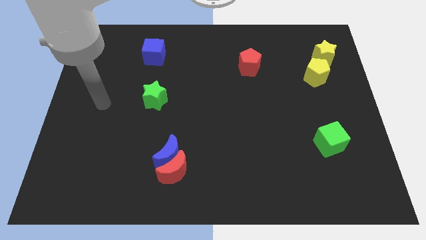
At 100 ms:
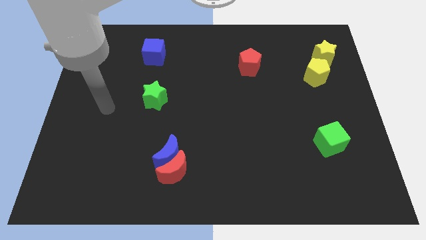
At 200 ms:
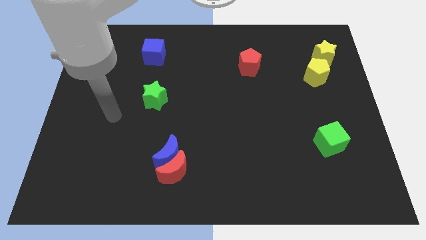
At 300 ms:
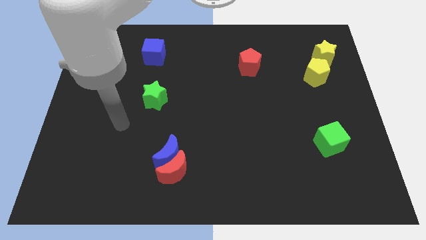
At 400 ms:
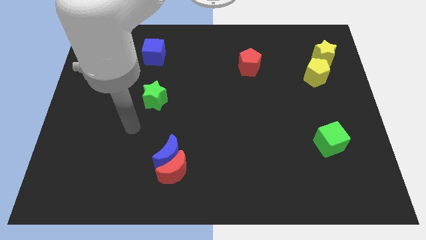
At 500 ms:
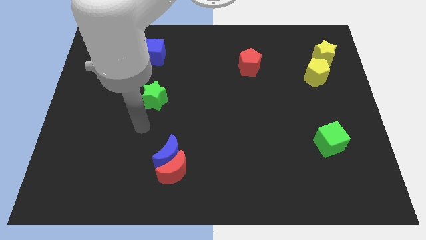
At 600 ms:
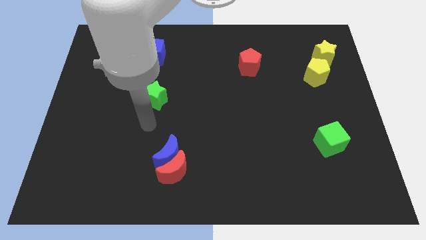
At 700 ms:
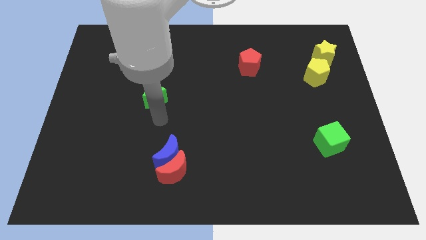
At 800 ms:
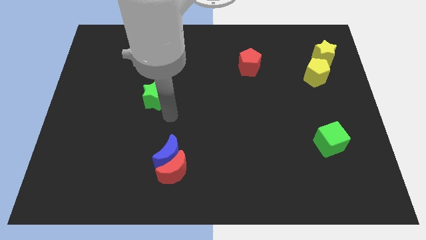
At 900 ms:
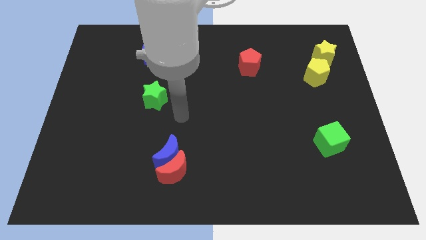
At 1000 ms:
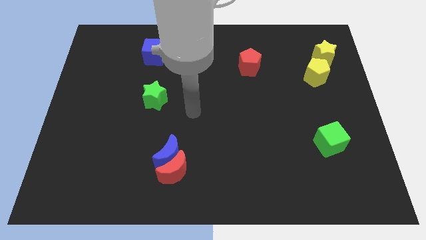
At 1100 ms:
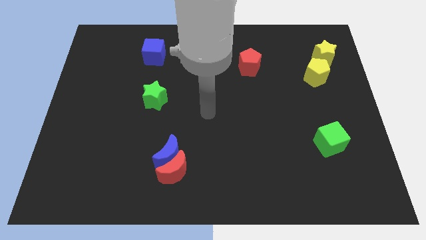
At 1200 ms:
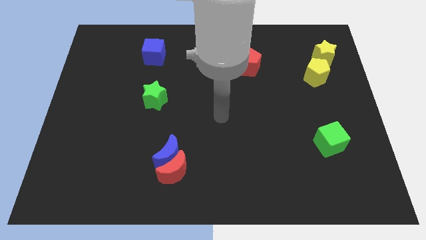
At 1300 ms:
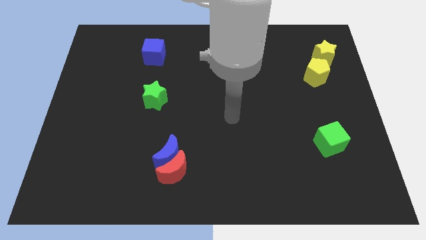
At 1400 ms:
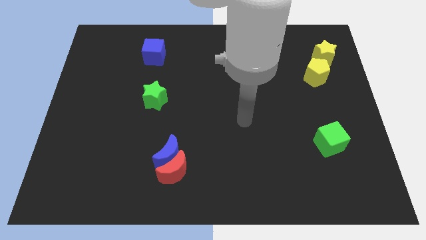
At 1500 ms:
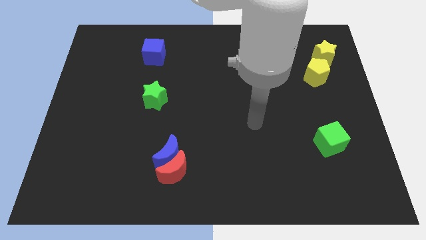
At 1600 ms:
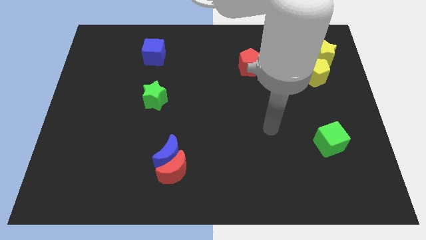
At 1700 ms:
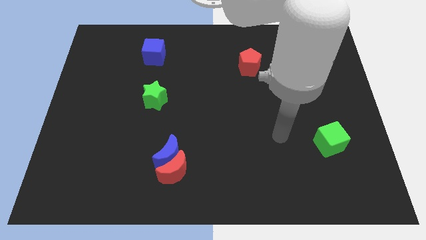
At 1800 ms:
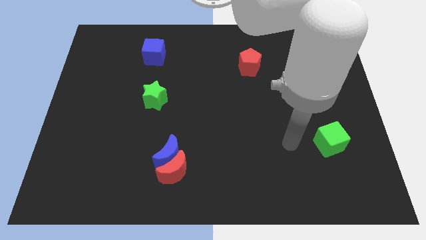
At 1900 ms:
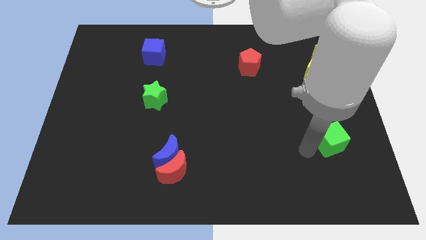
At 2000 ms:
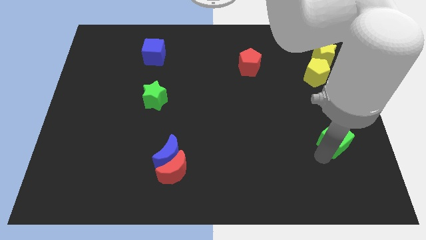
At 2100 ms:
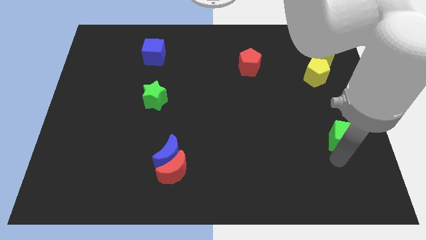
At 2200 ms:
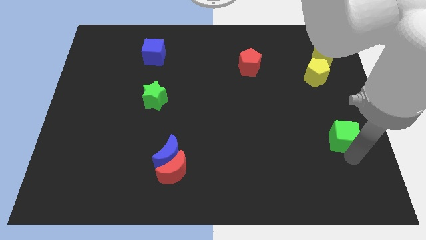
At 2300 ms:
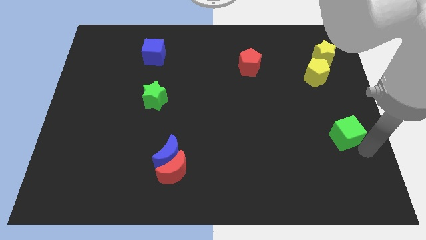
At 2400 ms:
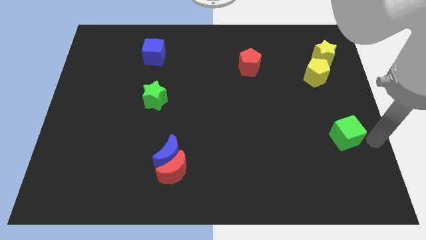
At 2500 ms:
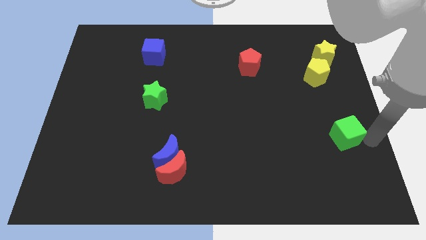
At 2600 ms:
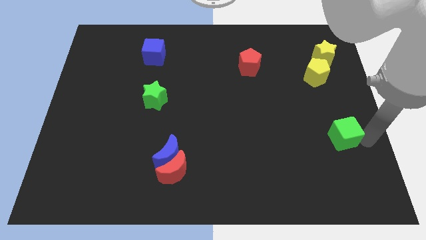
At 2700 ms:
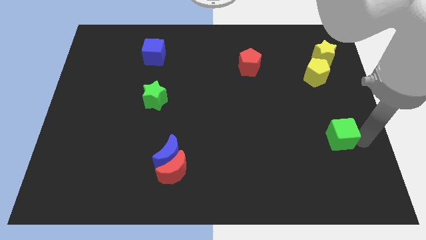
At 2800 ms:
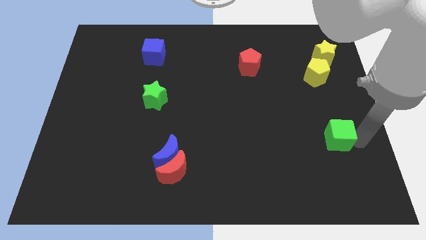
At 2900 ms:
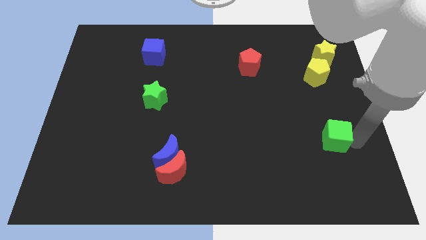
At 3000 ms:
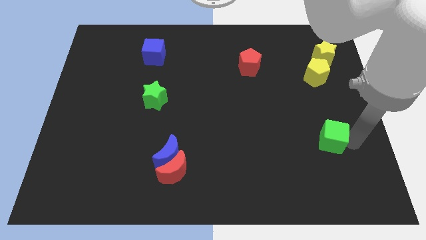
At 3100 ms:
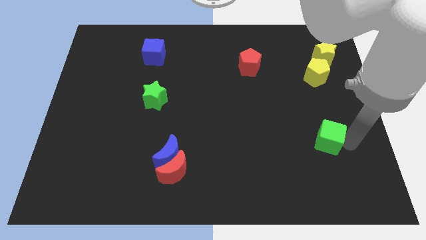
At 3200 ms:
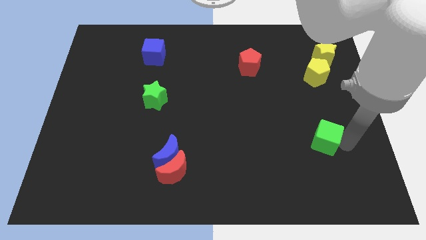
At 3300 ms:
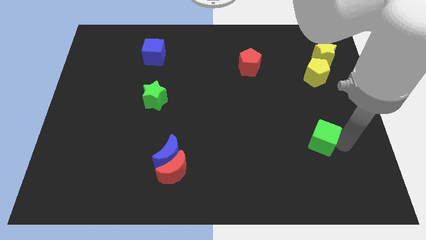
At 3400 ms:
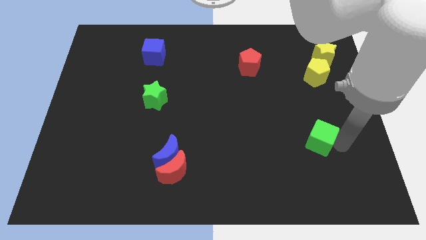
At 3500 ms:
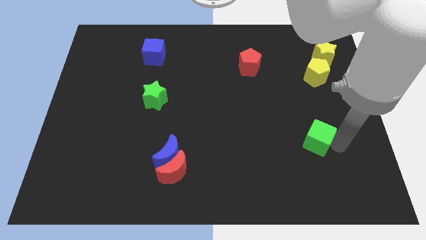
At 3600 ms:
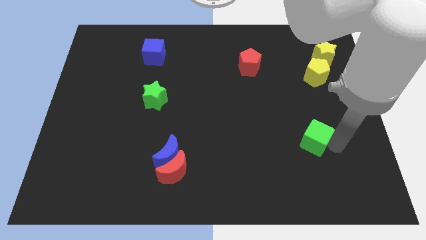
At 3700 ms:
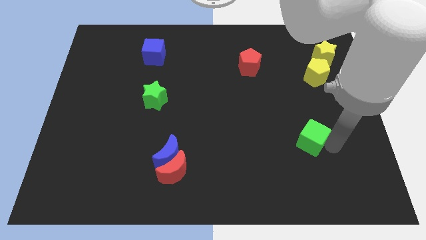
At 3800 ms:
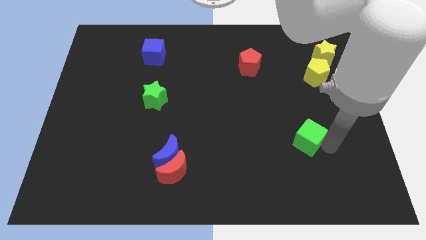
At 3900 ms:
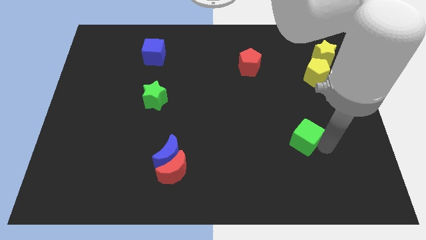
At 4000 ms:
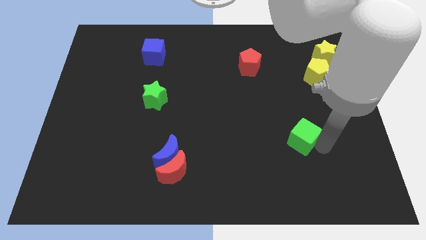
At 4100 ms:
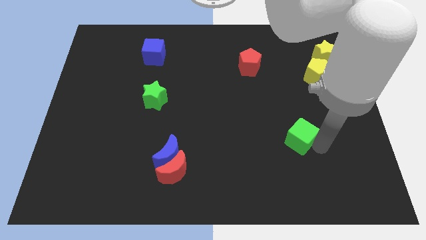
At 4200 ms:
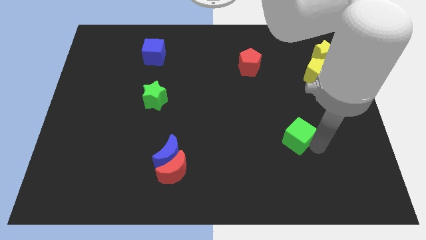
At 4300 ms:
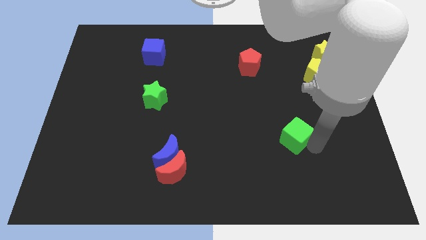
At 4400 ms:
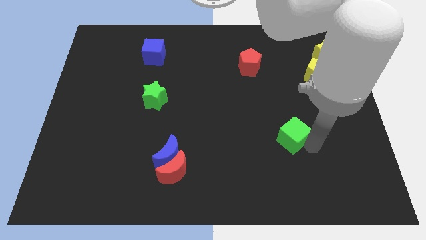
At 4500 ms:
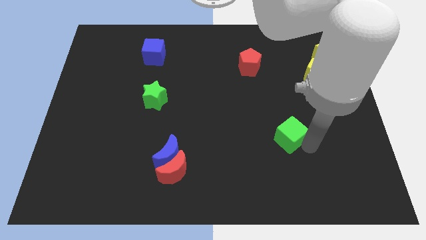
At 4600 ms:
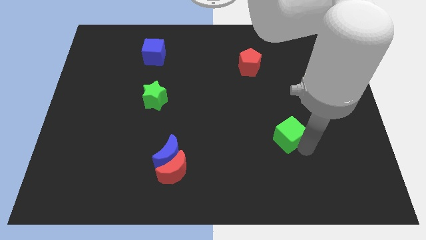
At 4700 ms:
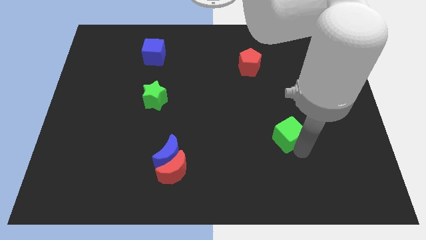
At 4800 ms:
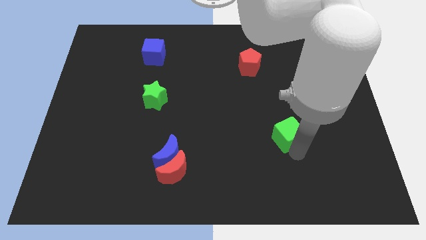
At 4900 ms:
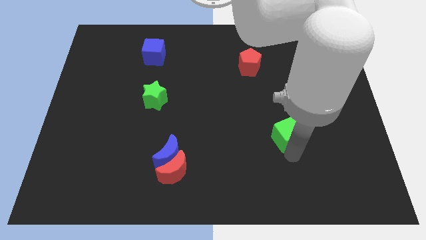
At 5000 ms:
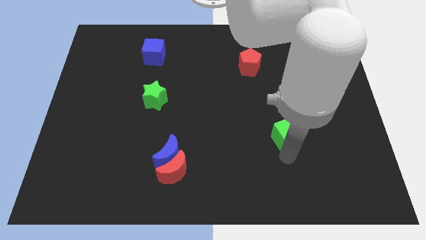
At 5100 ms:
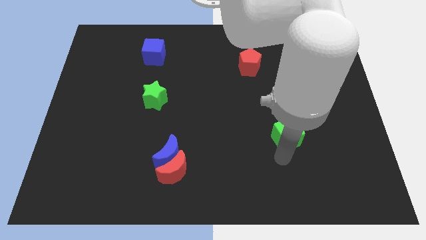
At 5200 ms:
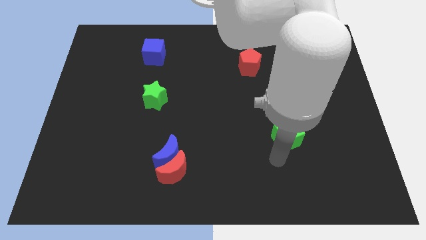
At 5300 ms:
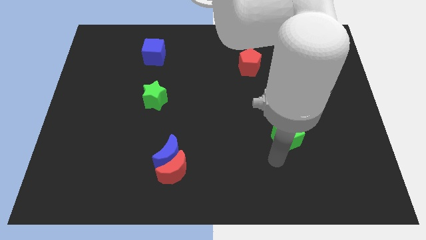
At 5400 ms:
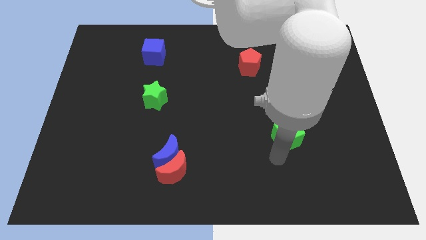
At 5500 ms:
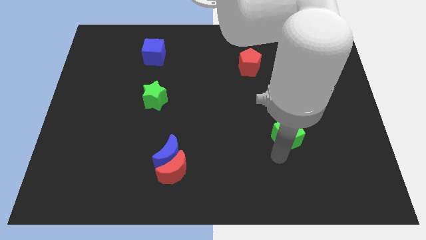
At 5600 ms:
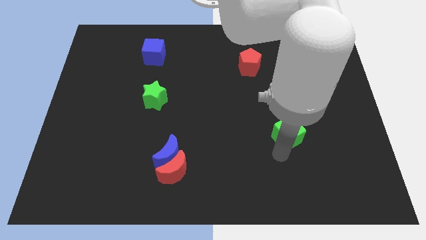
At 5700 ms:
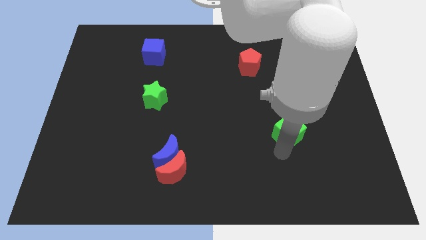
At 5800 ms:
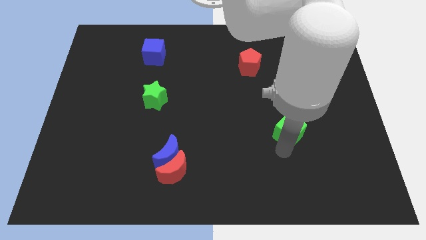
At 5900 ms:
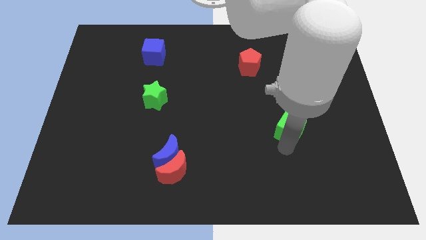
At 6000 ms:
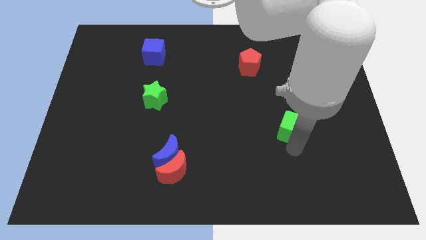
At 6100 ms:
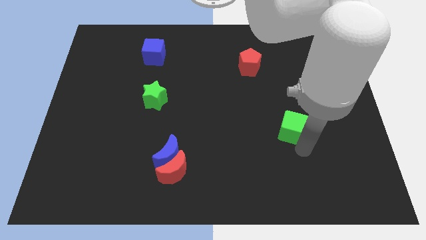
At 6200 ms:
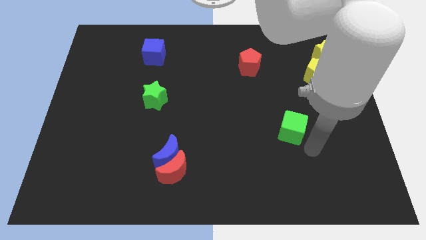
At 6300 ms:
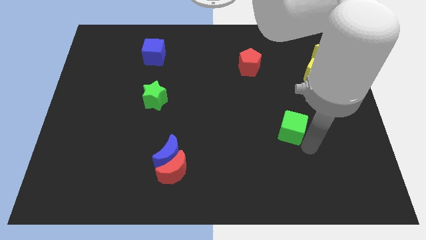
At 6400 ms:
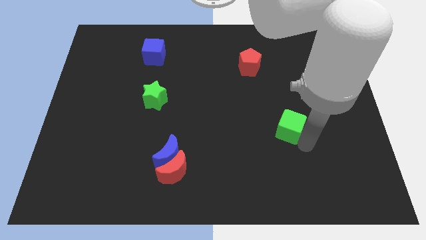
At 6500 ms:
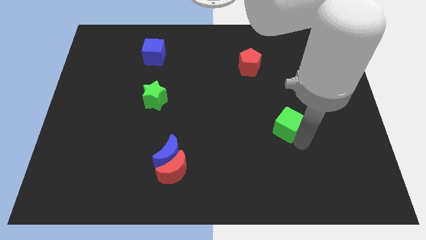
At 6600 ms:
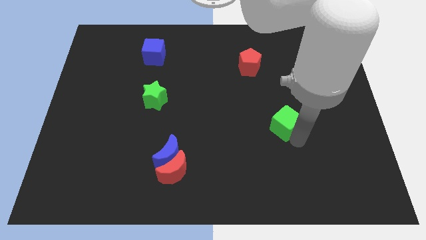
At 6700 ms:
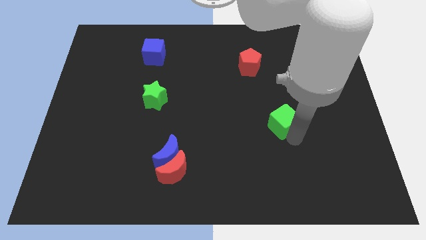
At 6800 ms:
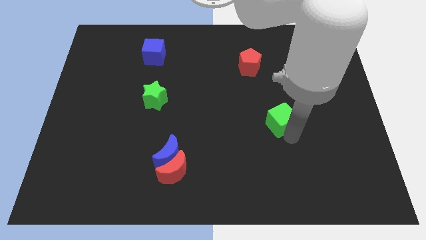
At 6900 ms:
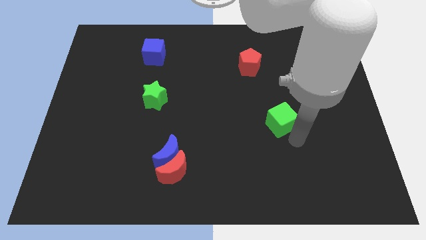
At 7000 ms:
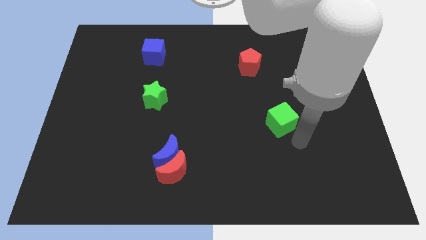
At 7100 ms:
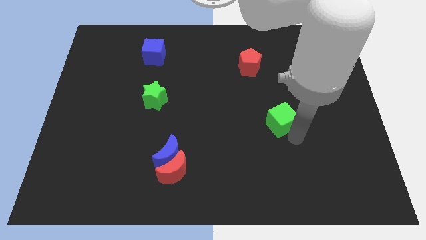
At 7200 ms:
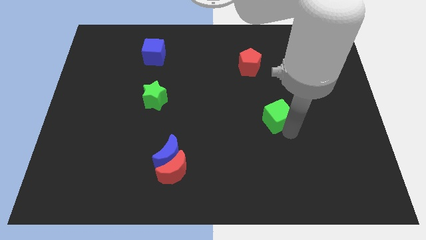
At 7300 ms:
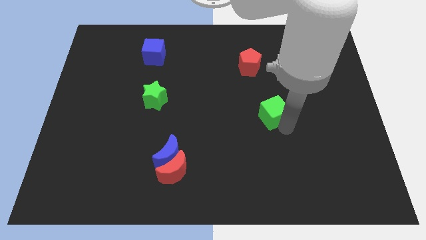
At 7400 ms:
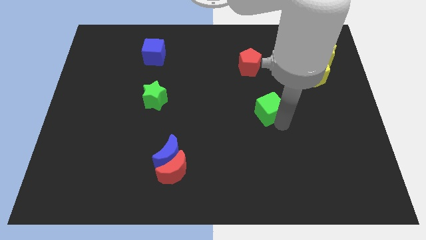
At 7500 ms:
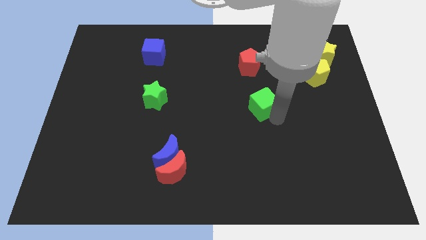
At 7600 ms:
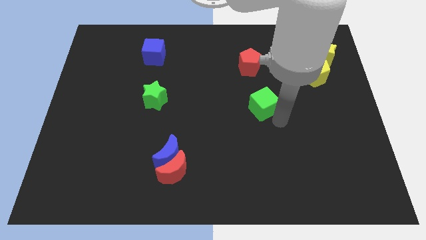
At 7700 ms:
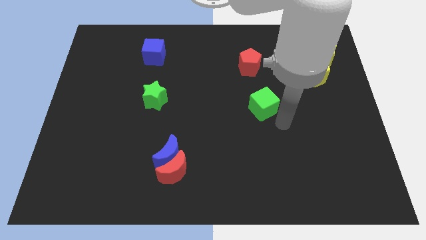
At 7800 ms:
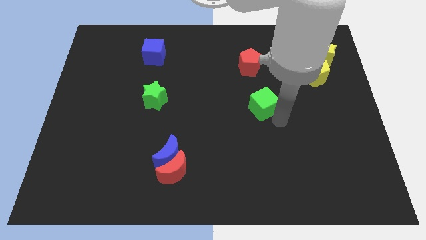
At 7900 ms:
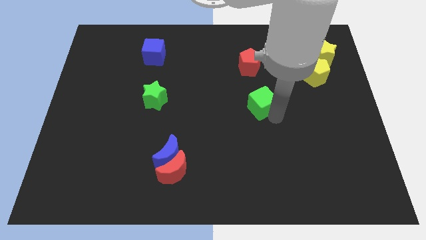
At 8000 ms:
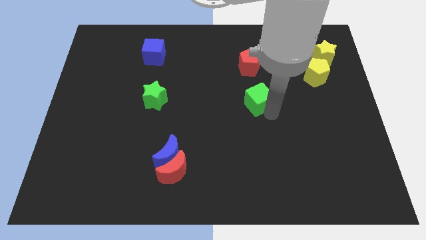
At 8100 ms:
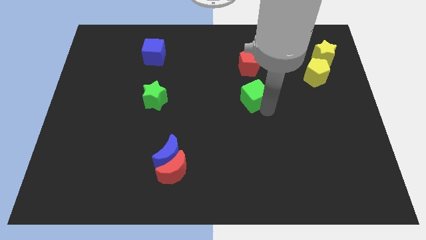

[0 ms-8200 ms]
slide the green cube upwards and then left
